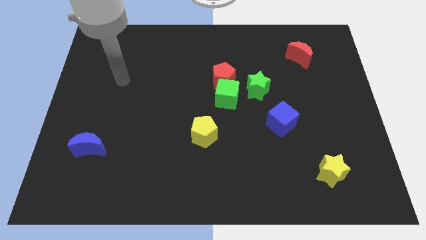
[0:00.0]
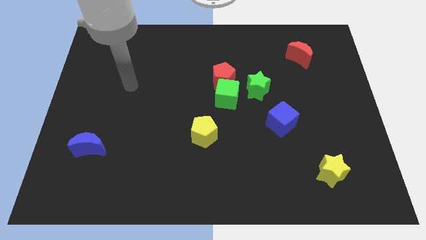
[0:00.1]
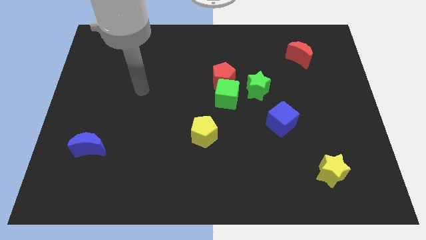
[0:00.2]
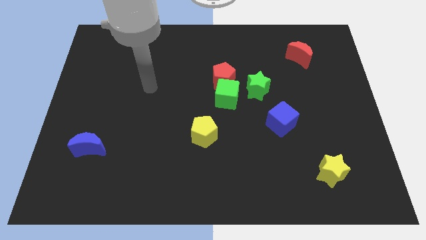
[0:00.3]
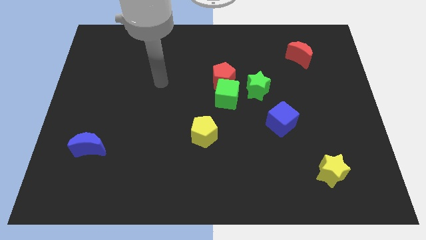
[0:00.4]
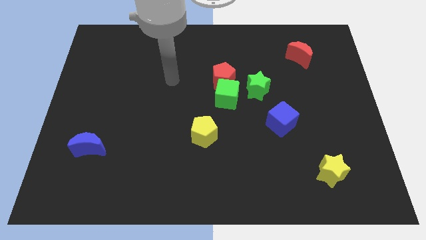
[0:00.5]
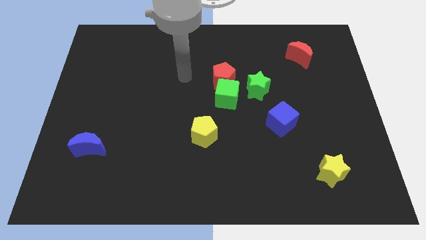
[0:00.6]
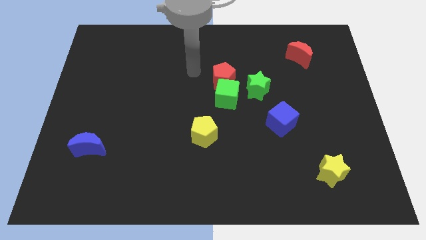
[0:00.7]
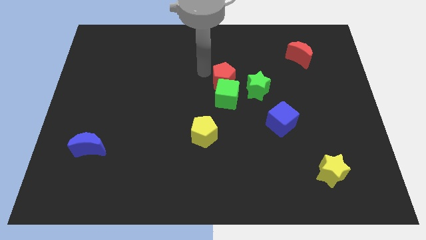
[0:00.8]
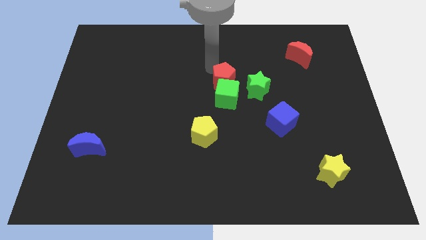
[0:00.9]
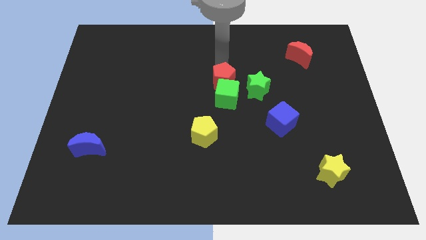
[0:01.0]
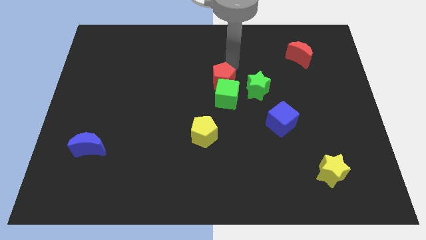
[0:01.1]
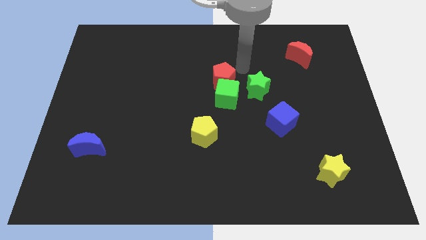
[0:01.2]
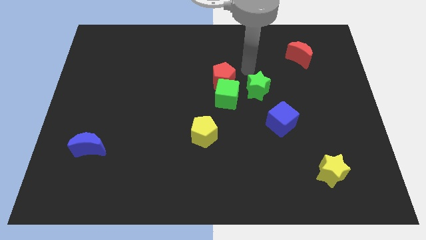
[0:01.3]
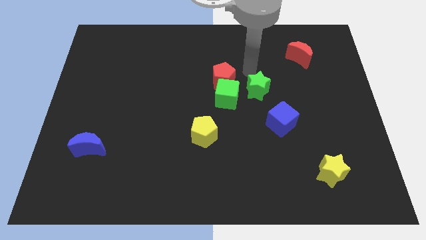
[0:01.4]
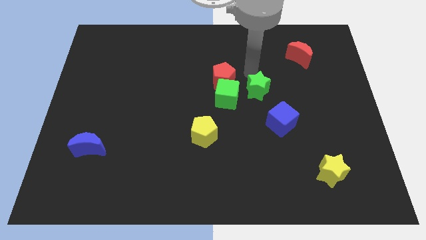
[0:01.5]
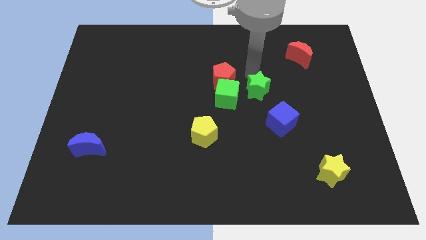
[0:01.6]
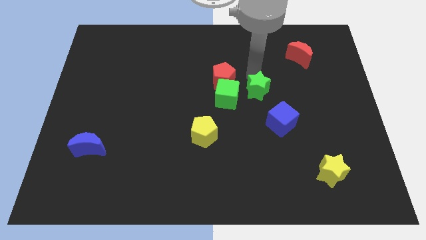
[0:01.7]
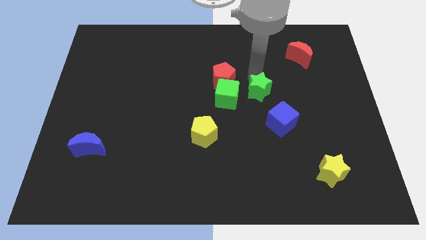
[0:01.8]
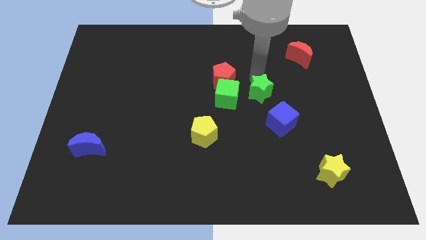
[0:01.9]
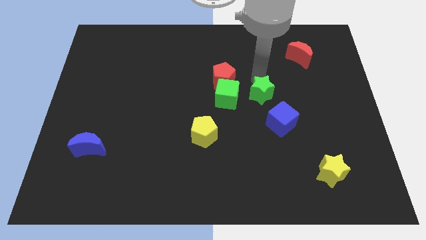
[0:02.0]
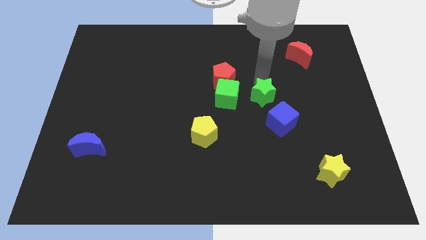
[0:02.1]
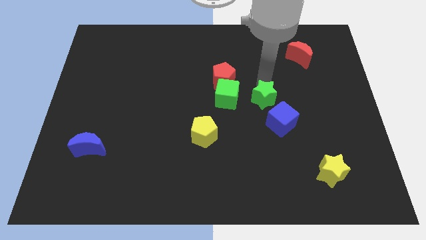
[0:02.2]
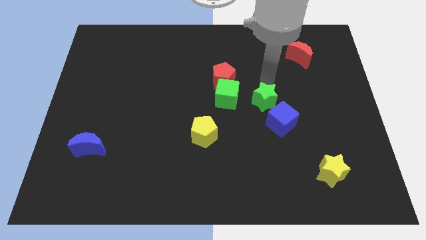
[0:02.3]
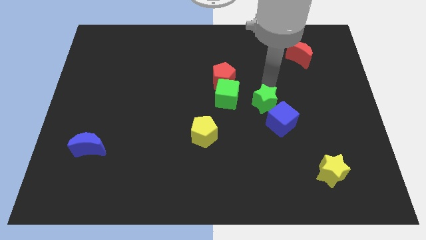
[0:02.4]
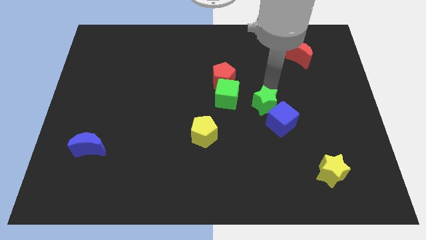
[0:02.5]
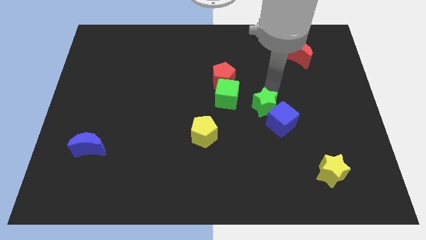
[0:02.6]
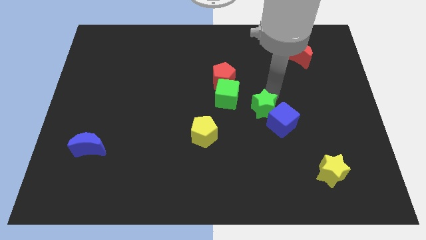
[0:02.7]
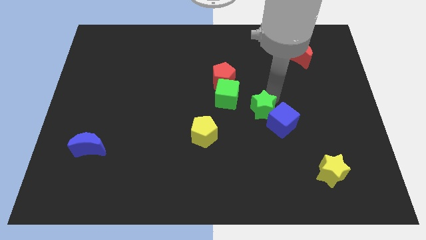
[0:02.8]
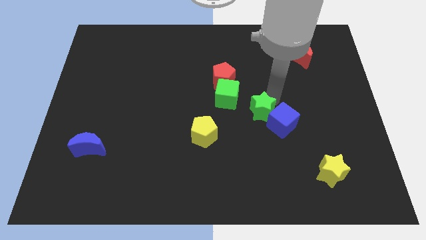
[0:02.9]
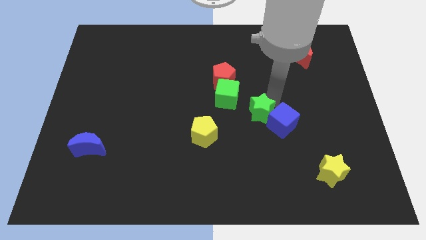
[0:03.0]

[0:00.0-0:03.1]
slide the green star a little downwards

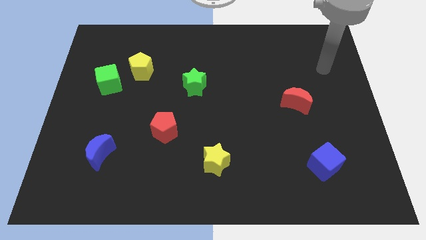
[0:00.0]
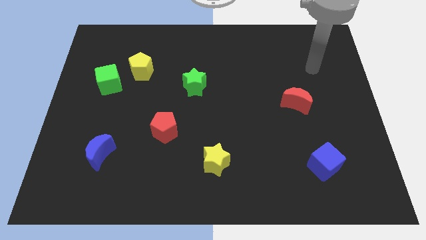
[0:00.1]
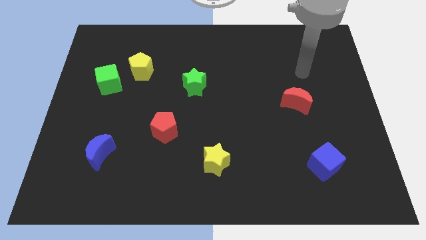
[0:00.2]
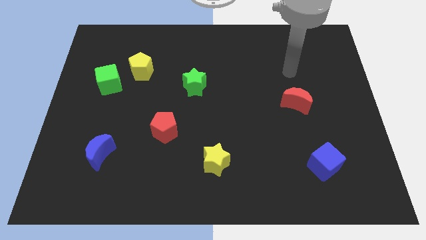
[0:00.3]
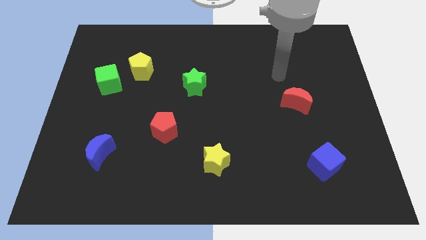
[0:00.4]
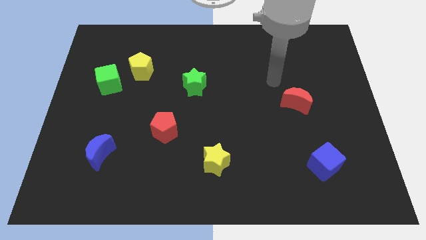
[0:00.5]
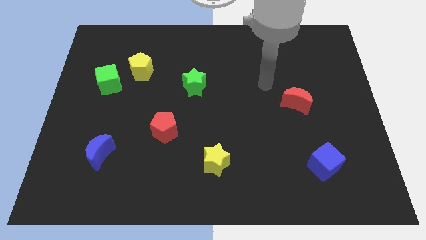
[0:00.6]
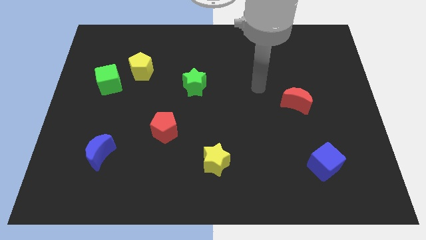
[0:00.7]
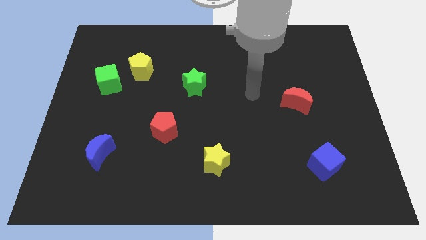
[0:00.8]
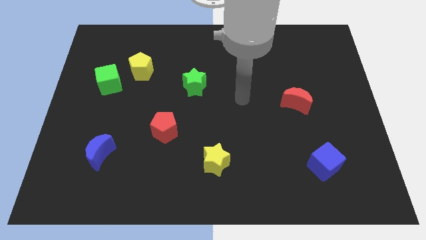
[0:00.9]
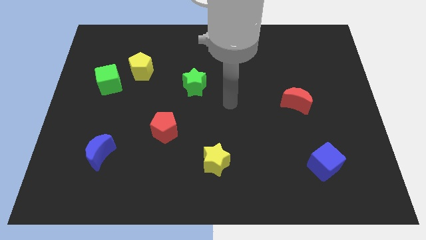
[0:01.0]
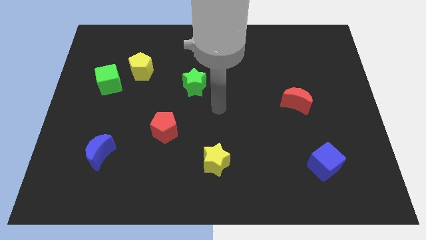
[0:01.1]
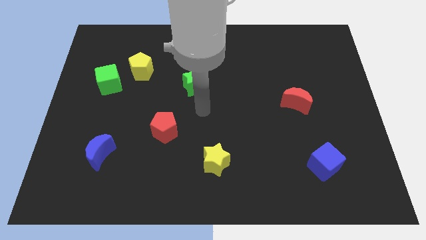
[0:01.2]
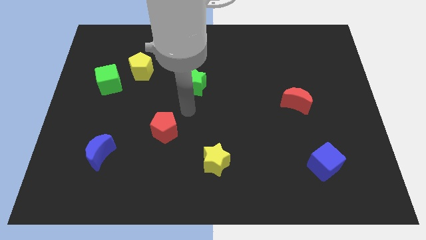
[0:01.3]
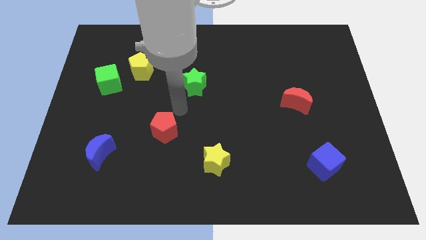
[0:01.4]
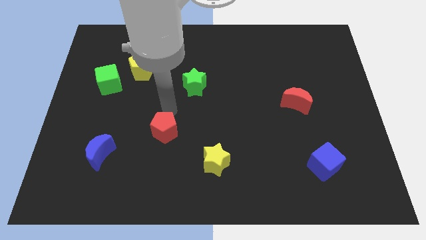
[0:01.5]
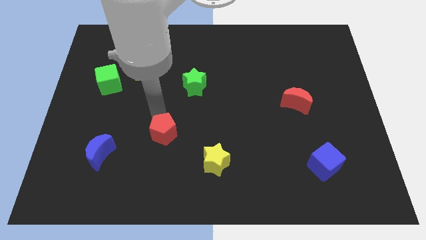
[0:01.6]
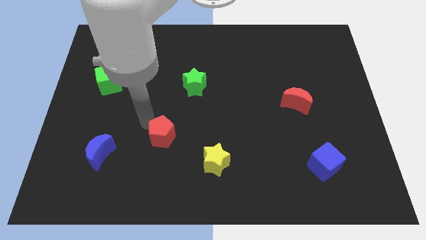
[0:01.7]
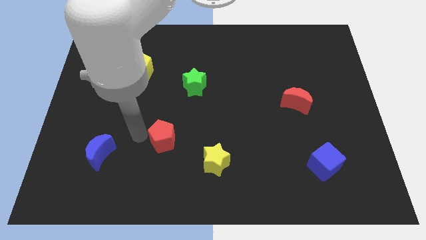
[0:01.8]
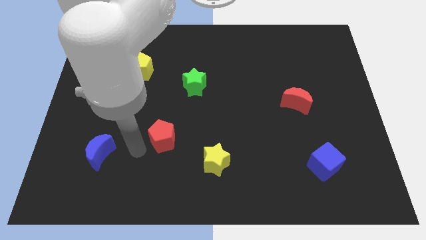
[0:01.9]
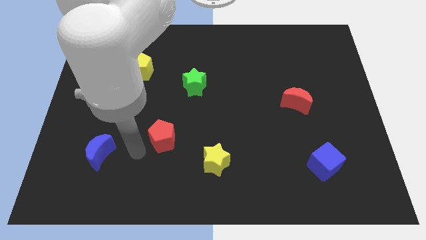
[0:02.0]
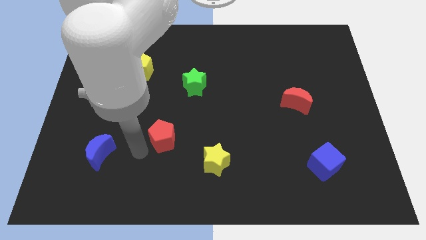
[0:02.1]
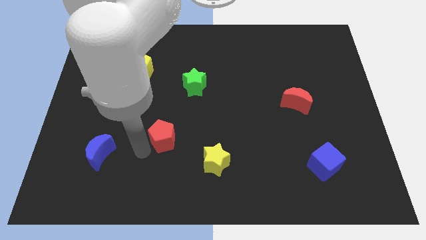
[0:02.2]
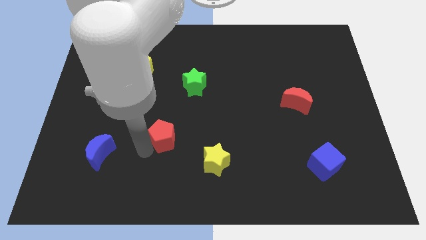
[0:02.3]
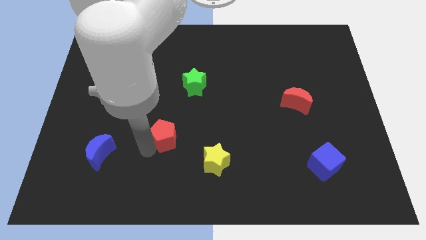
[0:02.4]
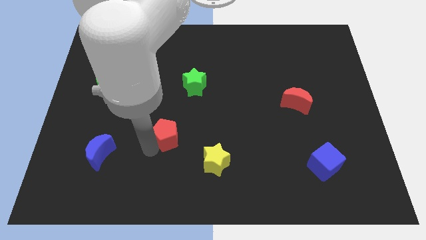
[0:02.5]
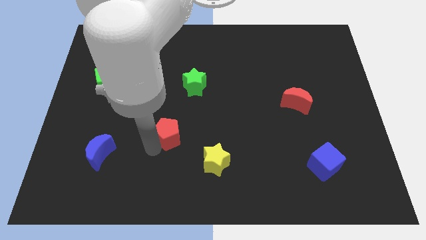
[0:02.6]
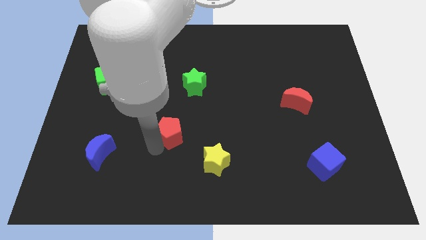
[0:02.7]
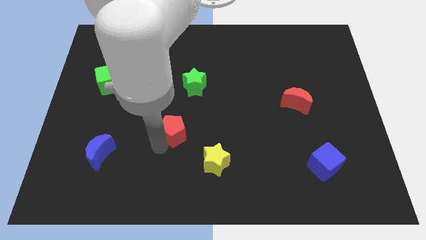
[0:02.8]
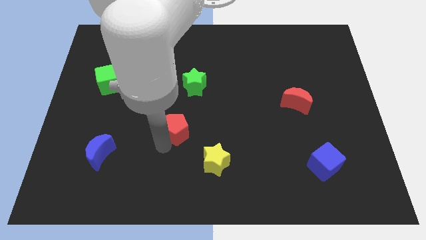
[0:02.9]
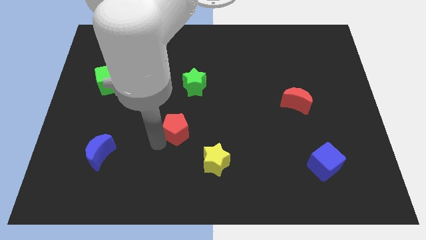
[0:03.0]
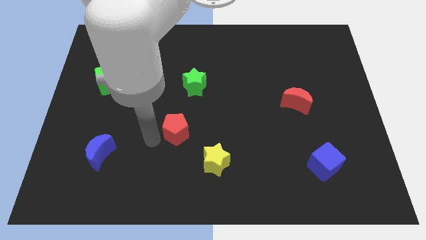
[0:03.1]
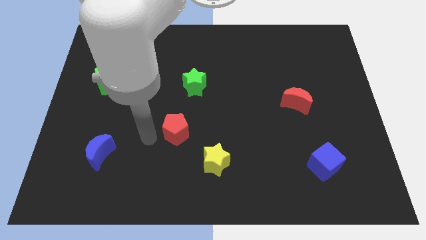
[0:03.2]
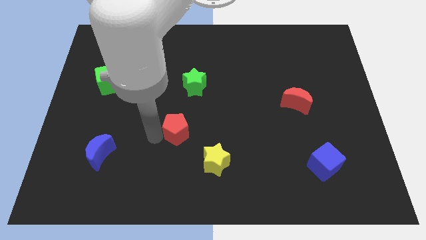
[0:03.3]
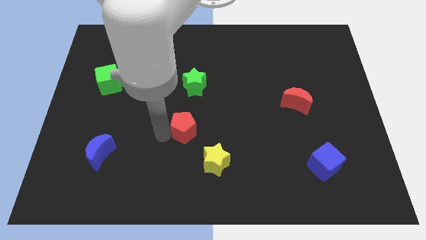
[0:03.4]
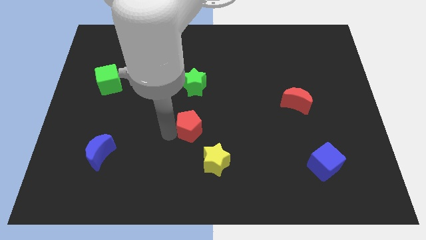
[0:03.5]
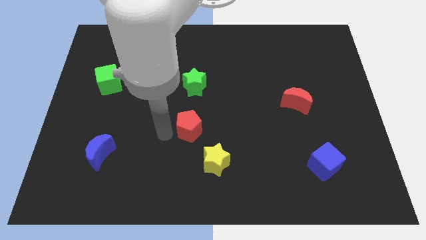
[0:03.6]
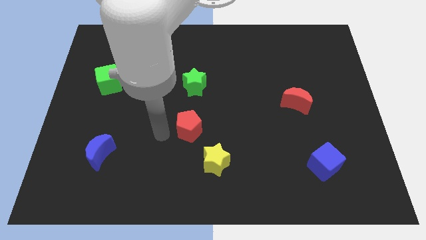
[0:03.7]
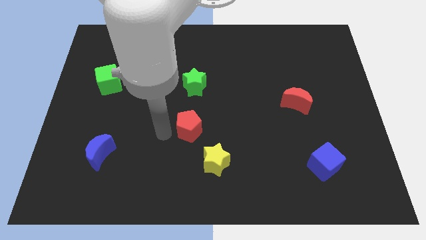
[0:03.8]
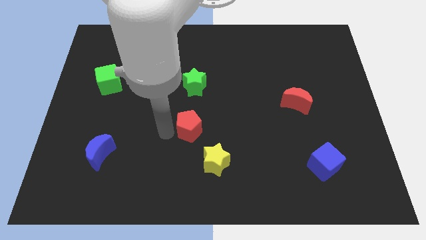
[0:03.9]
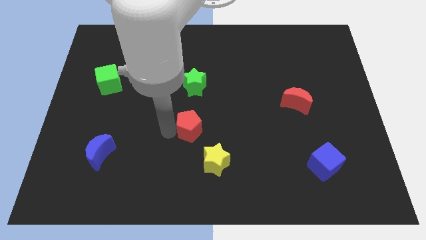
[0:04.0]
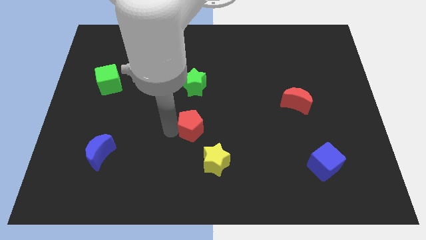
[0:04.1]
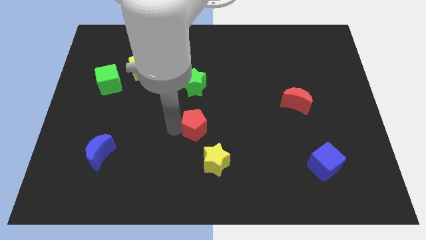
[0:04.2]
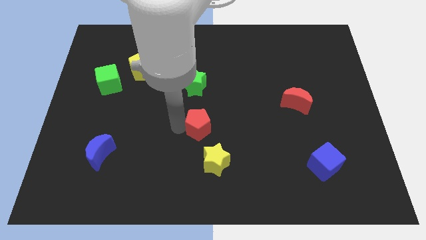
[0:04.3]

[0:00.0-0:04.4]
slightly push the red pentagon right

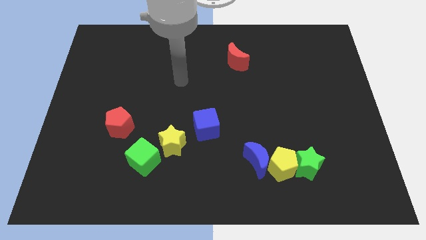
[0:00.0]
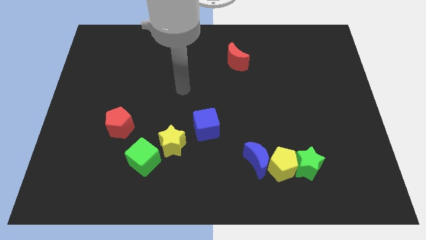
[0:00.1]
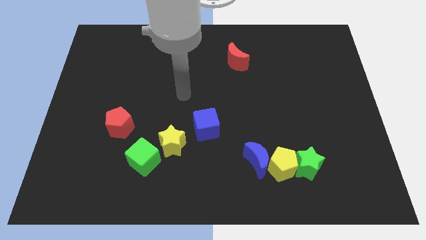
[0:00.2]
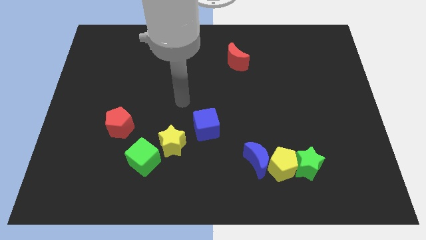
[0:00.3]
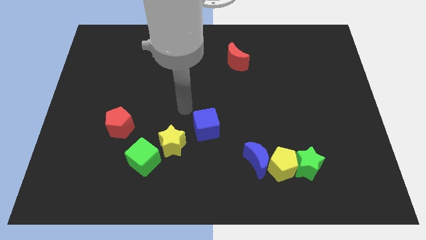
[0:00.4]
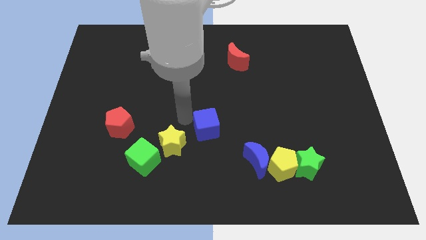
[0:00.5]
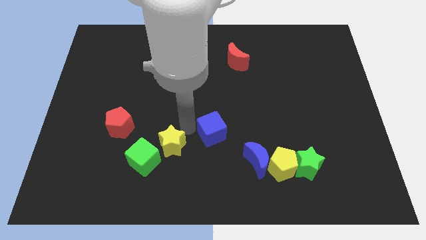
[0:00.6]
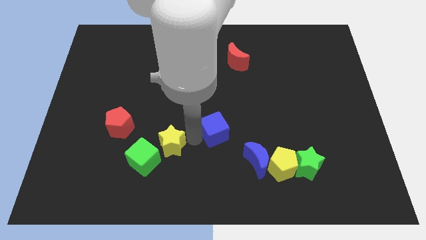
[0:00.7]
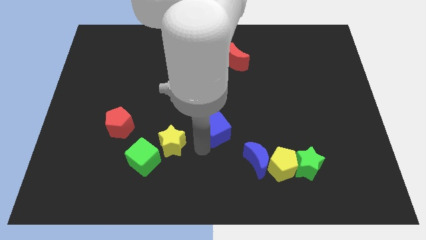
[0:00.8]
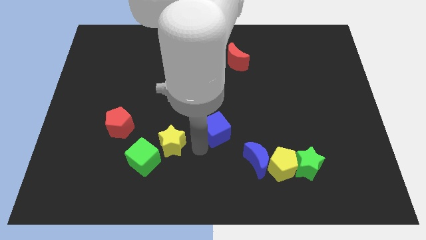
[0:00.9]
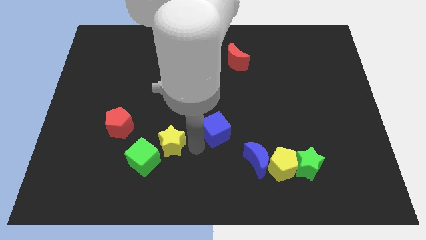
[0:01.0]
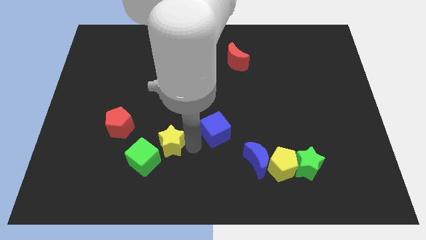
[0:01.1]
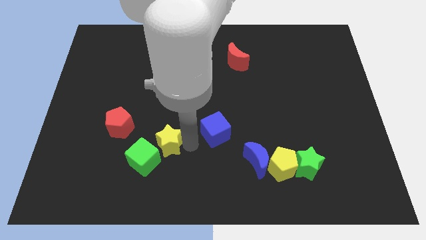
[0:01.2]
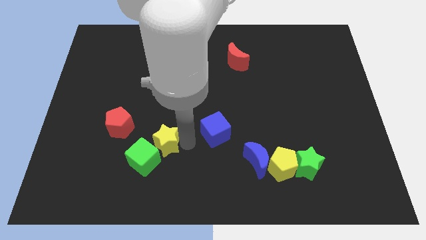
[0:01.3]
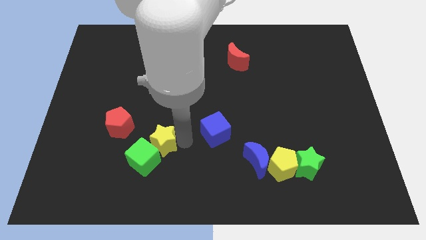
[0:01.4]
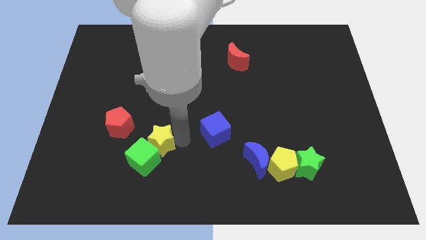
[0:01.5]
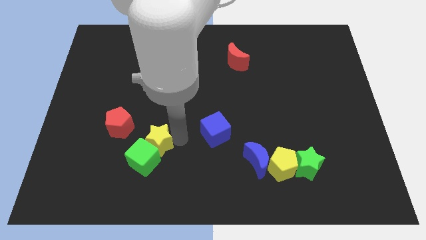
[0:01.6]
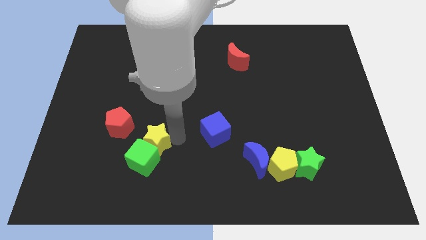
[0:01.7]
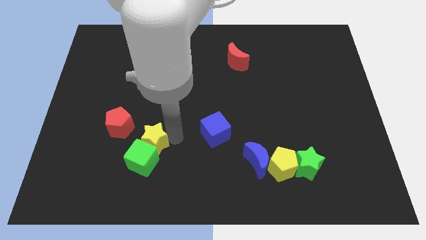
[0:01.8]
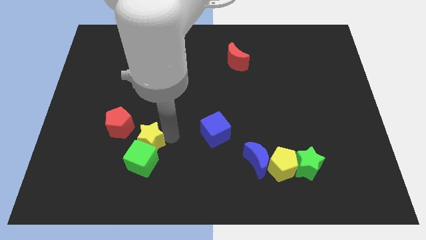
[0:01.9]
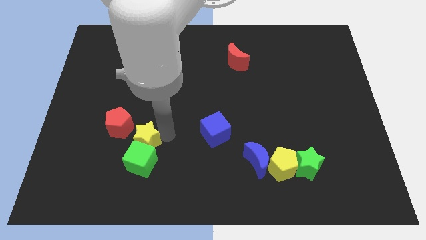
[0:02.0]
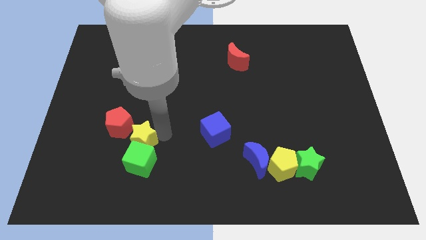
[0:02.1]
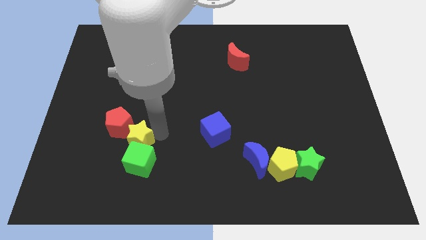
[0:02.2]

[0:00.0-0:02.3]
slightly push the yellow star to the left
